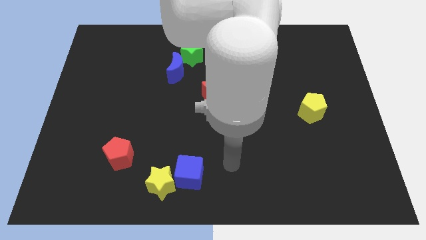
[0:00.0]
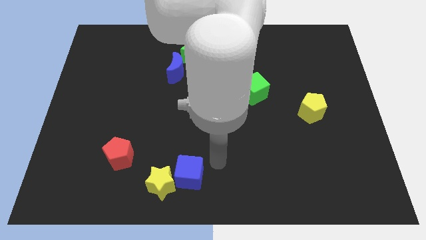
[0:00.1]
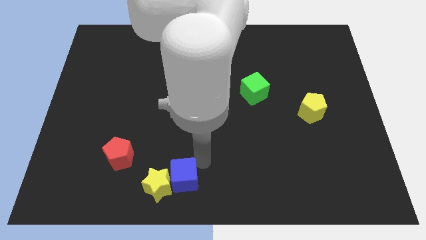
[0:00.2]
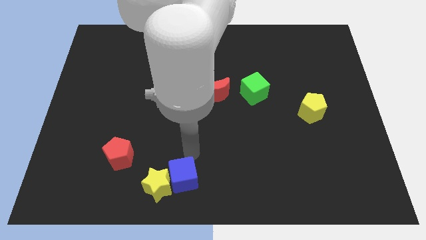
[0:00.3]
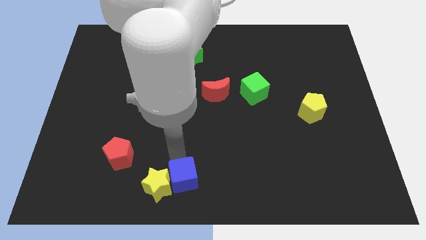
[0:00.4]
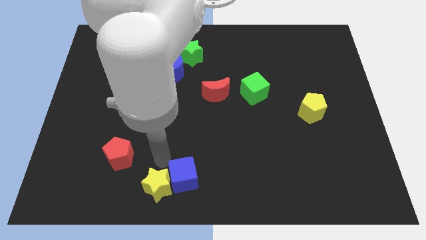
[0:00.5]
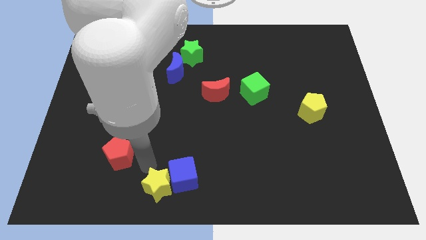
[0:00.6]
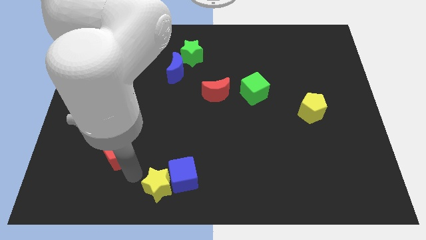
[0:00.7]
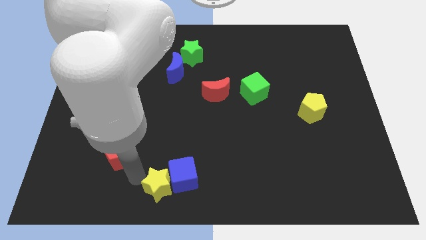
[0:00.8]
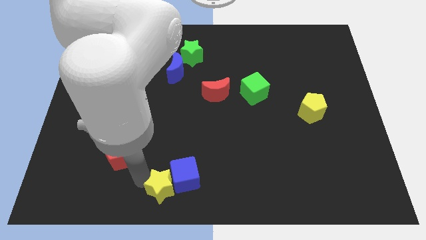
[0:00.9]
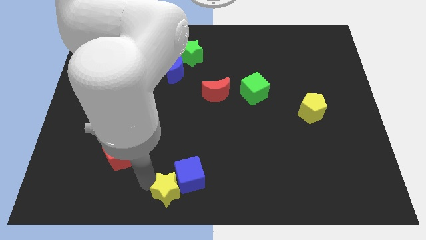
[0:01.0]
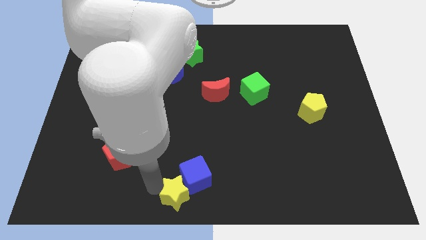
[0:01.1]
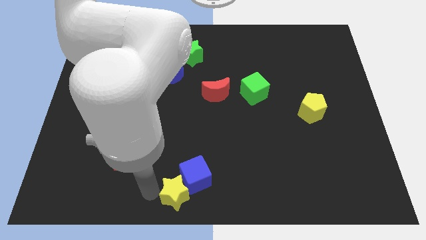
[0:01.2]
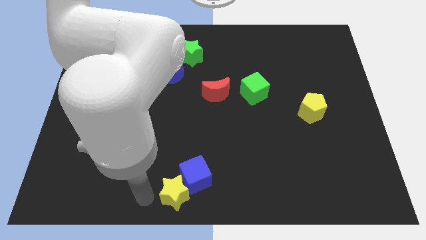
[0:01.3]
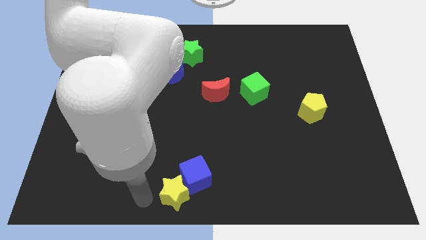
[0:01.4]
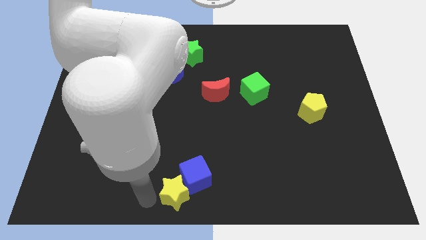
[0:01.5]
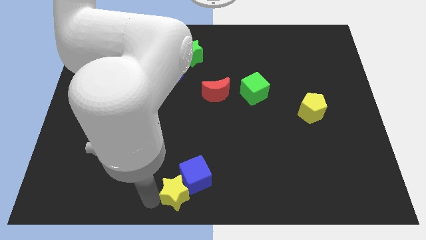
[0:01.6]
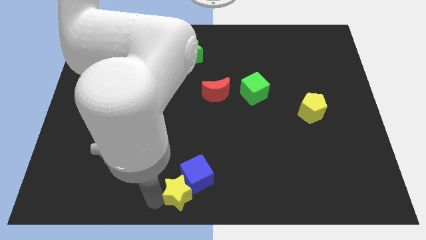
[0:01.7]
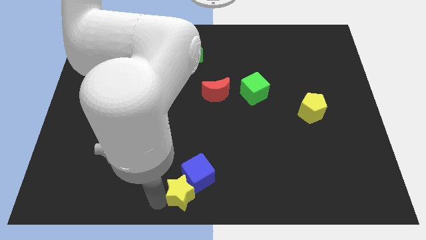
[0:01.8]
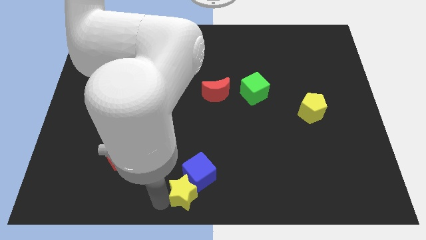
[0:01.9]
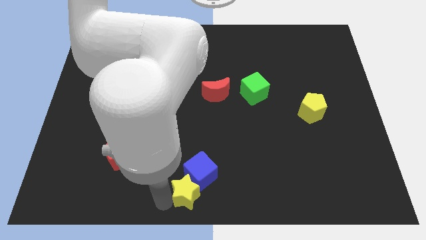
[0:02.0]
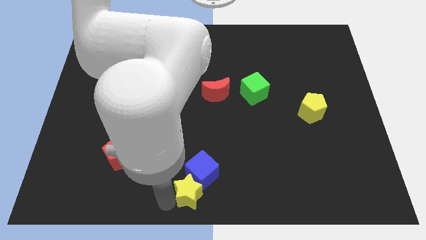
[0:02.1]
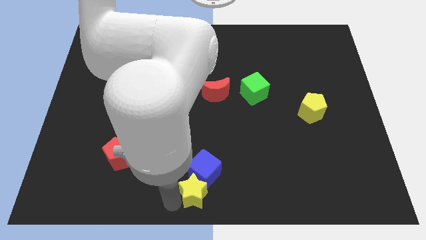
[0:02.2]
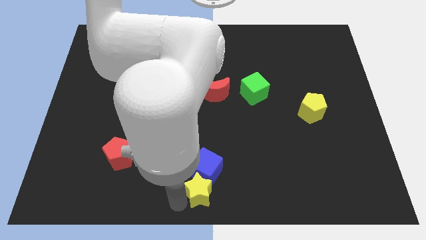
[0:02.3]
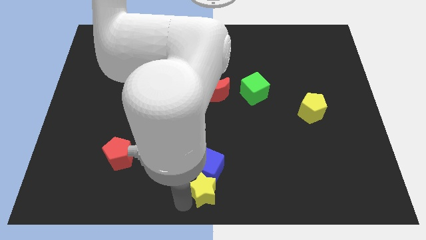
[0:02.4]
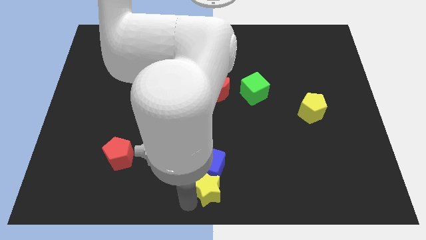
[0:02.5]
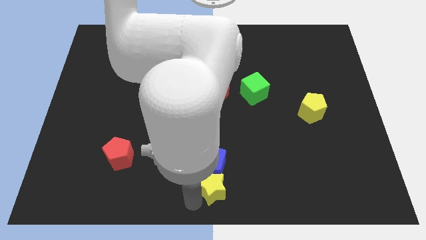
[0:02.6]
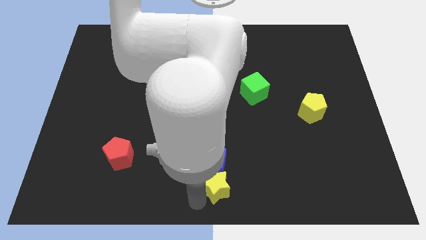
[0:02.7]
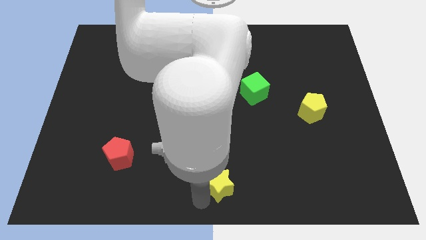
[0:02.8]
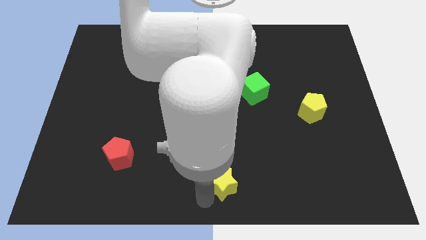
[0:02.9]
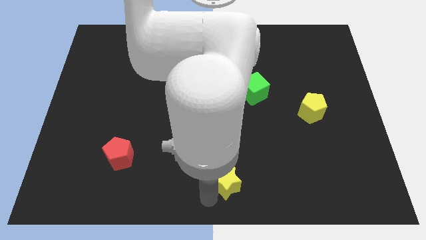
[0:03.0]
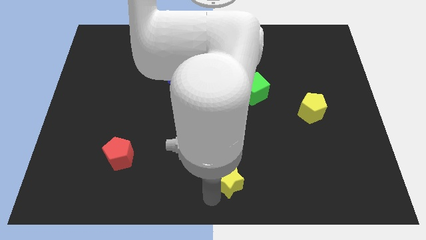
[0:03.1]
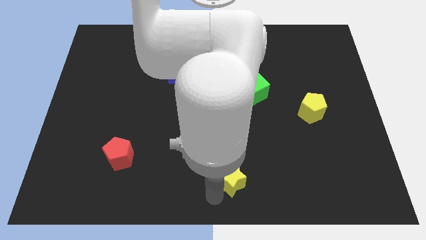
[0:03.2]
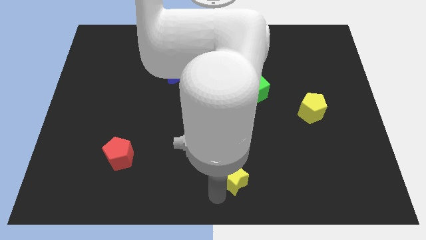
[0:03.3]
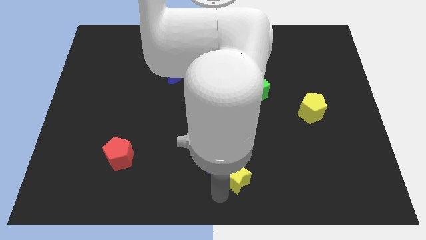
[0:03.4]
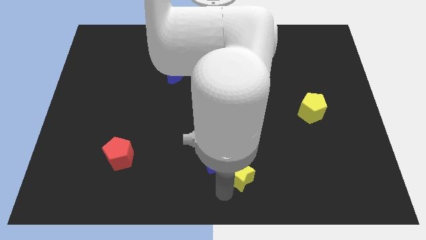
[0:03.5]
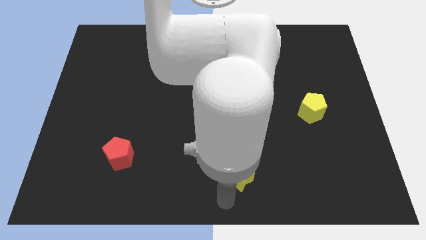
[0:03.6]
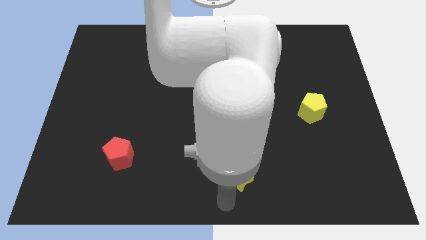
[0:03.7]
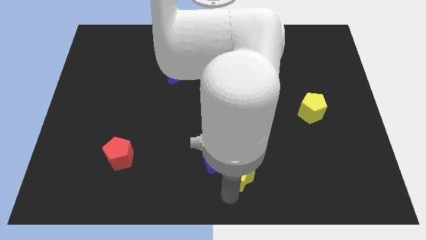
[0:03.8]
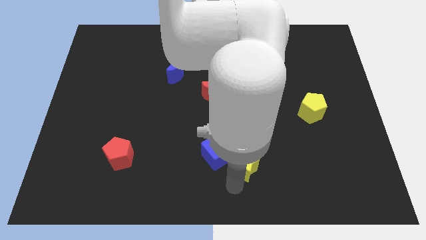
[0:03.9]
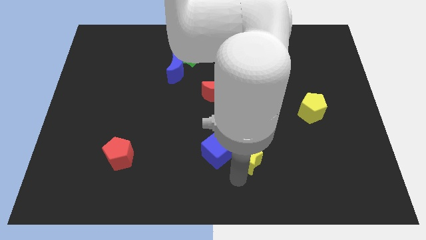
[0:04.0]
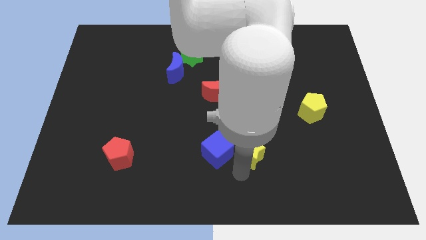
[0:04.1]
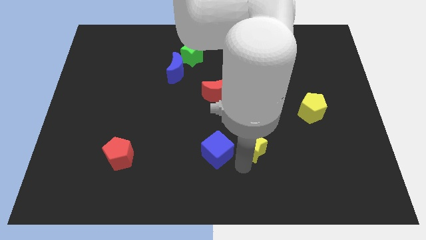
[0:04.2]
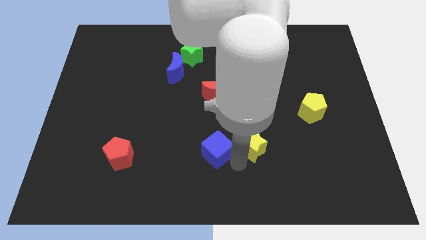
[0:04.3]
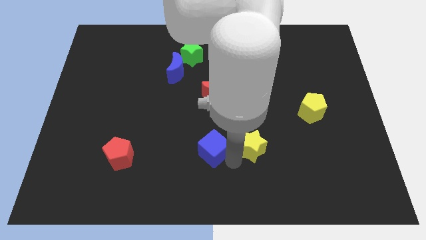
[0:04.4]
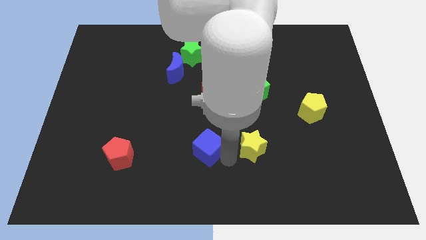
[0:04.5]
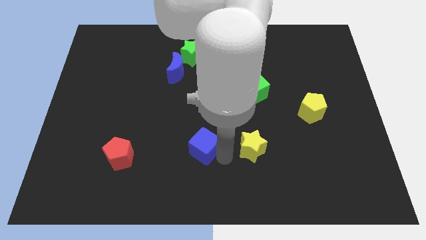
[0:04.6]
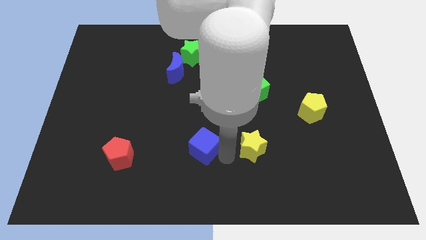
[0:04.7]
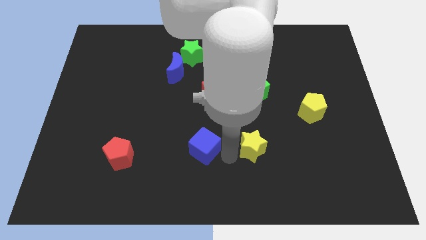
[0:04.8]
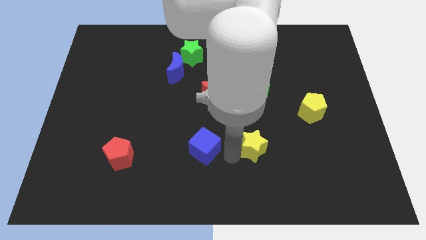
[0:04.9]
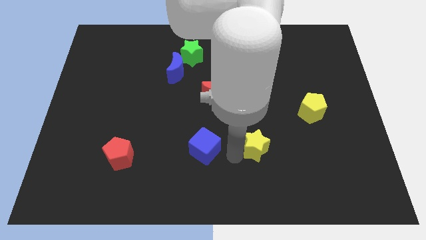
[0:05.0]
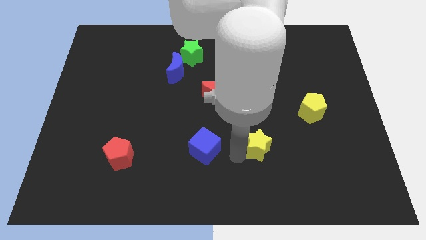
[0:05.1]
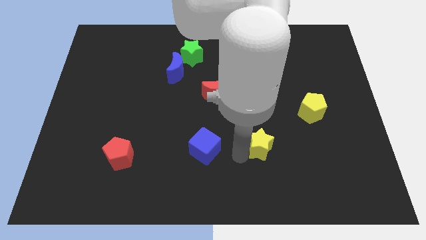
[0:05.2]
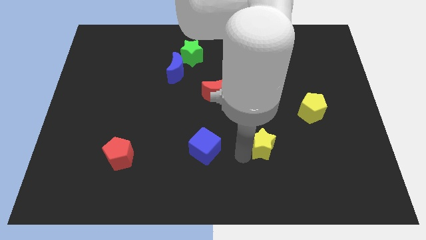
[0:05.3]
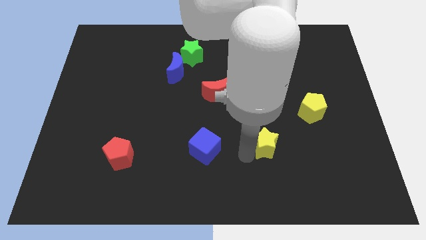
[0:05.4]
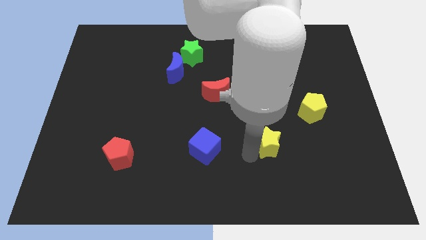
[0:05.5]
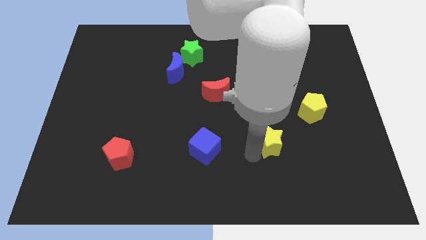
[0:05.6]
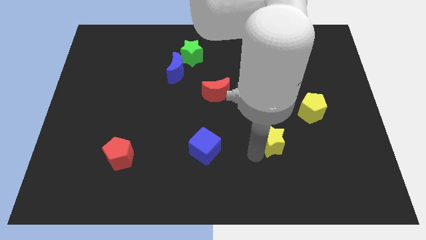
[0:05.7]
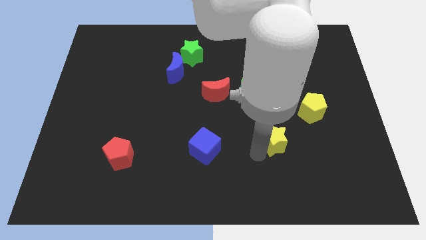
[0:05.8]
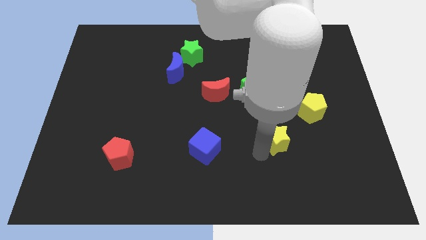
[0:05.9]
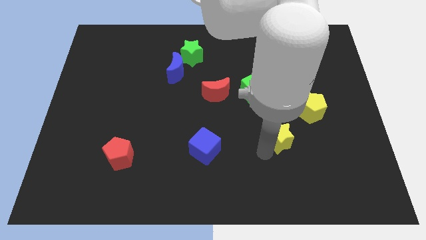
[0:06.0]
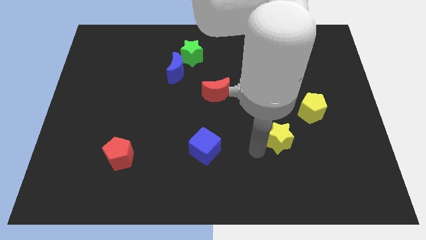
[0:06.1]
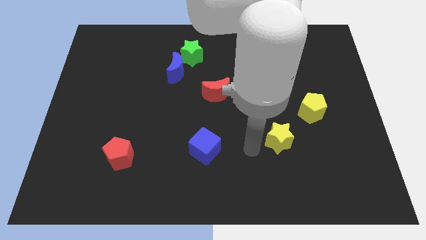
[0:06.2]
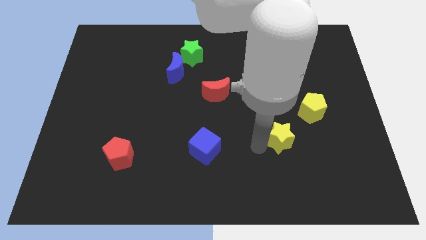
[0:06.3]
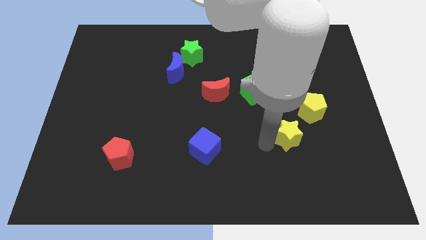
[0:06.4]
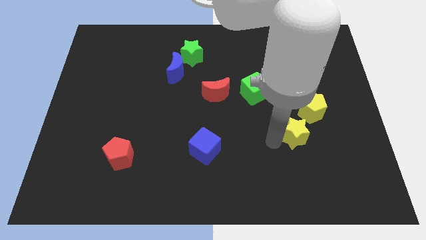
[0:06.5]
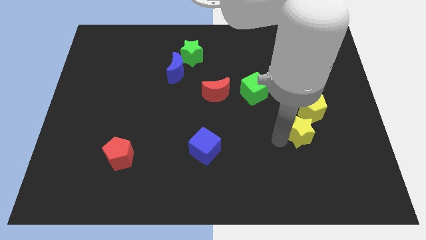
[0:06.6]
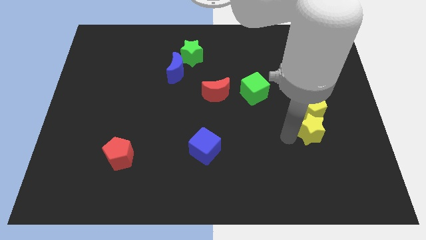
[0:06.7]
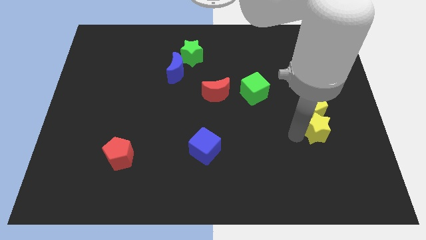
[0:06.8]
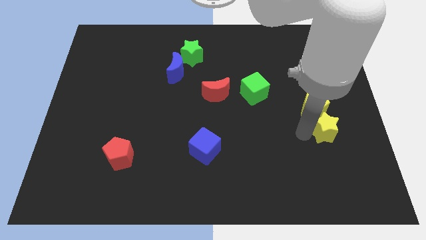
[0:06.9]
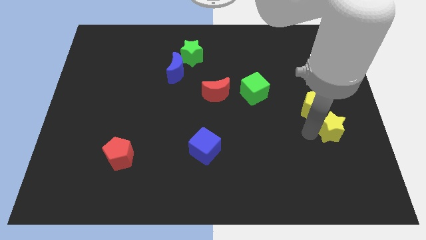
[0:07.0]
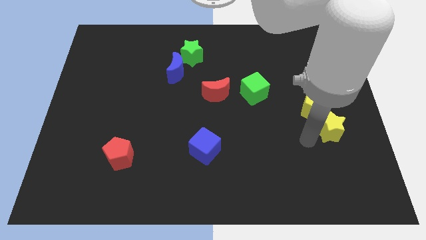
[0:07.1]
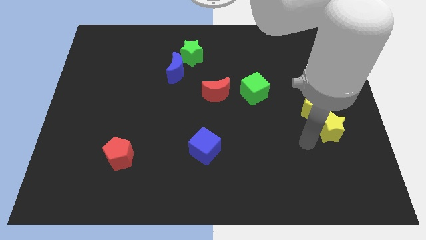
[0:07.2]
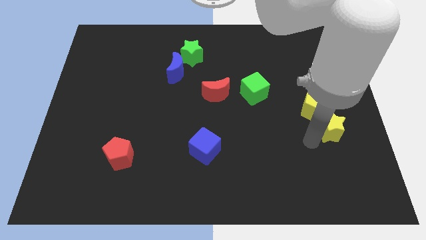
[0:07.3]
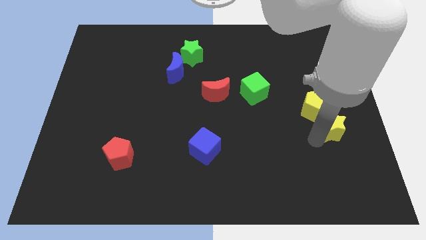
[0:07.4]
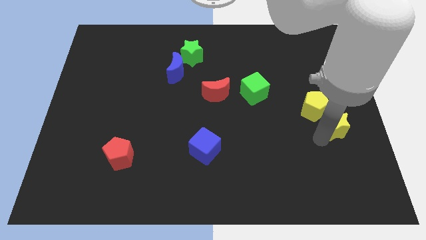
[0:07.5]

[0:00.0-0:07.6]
move the yellow star to the right side of the board
